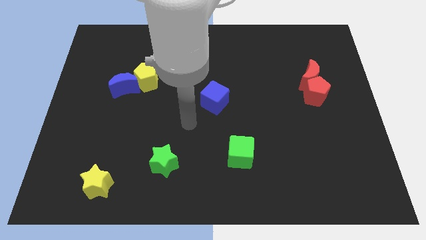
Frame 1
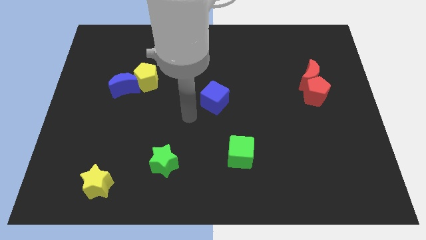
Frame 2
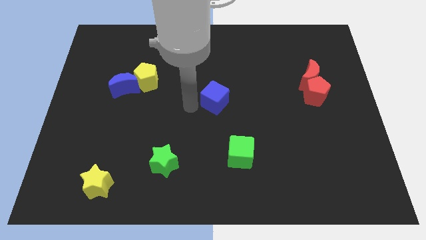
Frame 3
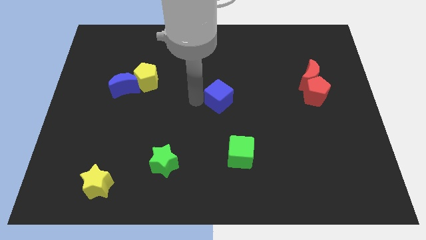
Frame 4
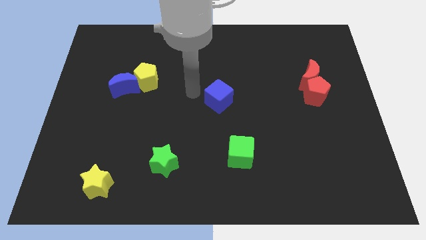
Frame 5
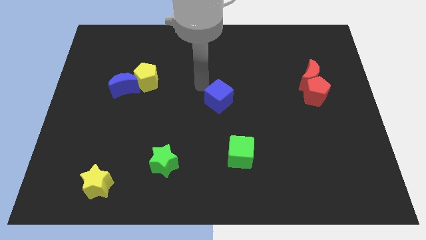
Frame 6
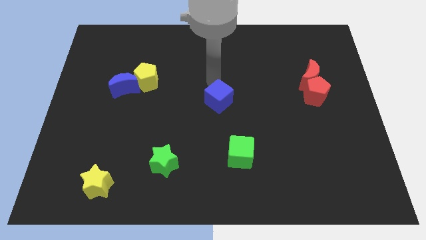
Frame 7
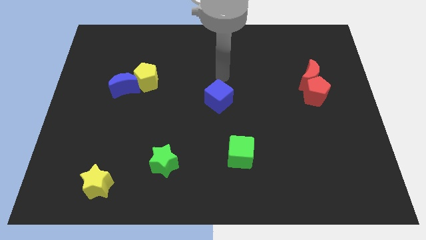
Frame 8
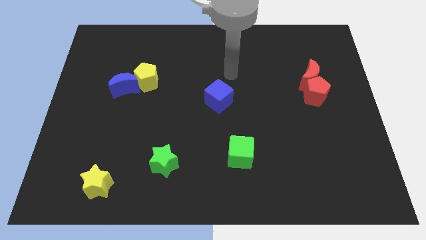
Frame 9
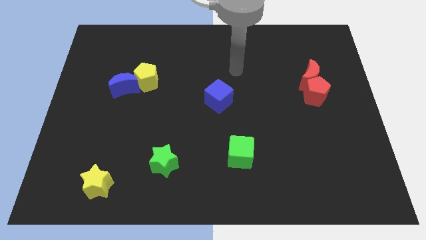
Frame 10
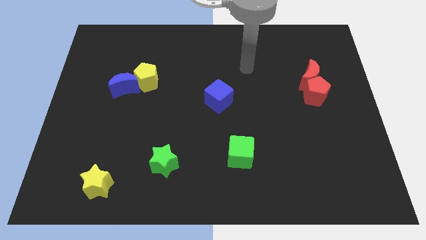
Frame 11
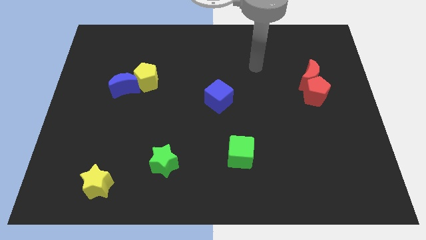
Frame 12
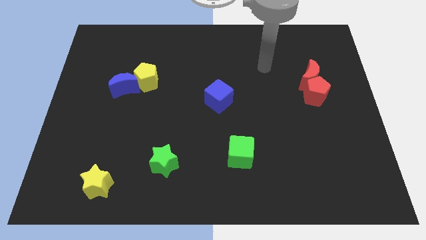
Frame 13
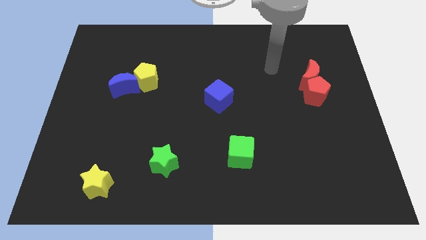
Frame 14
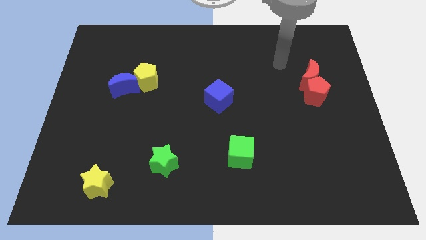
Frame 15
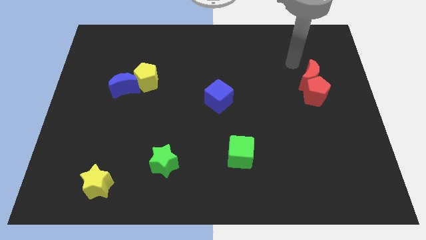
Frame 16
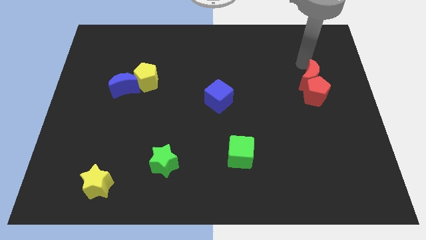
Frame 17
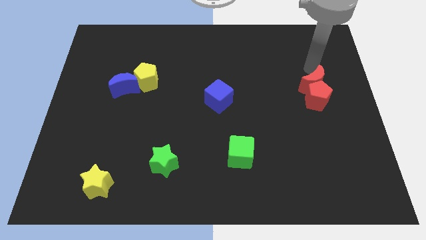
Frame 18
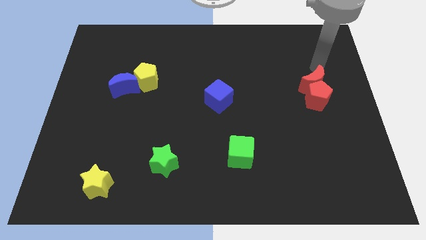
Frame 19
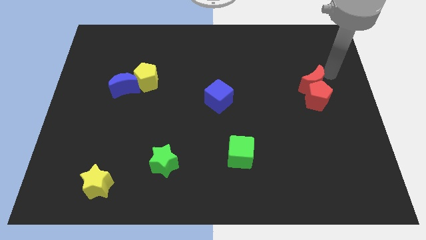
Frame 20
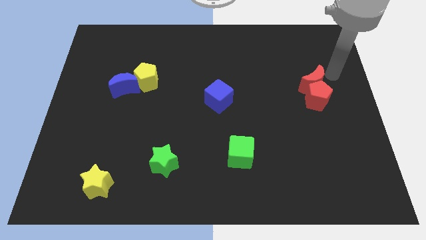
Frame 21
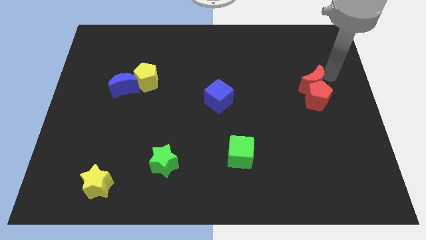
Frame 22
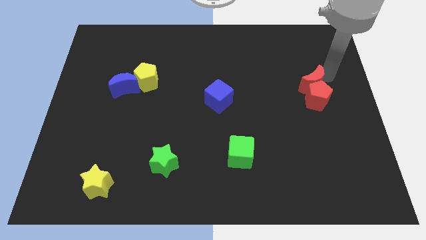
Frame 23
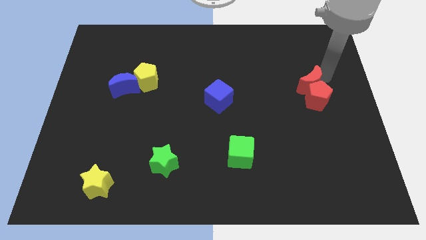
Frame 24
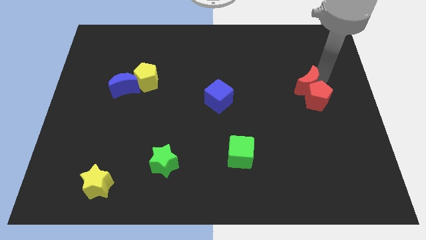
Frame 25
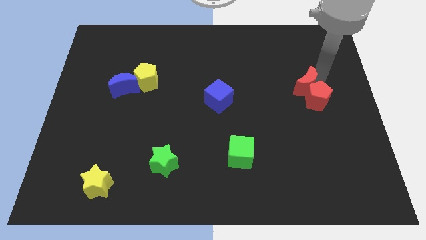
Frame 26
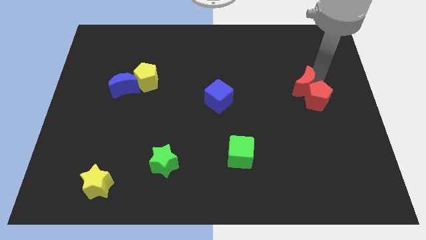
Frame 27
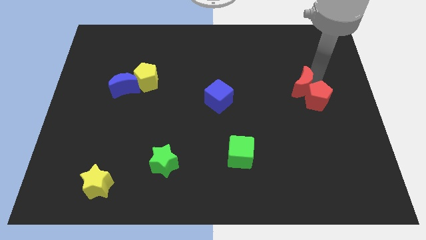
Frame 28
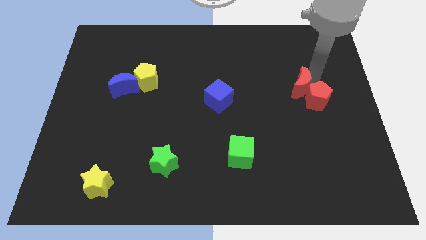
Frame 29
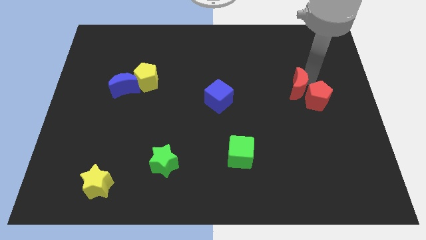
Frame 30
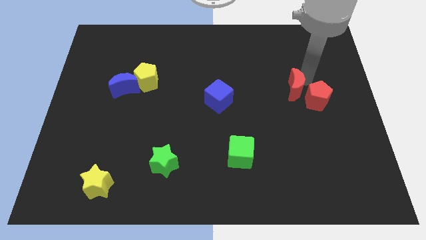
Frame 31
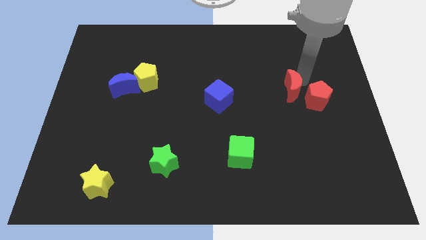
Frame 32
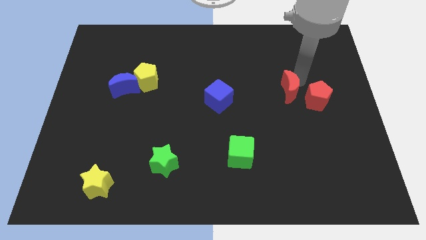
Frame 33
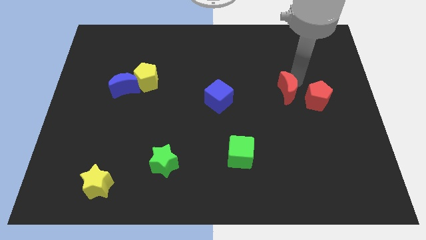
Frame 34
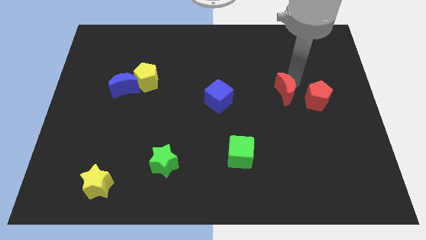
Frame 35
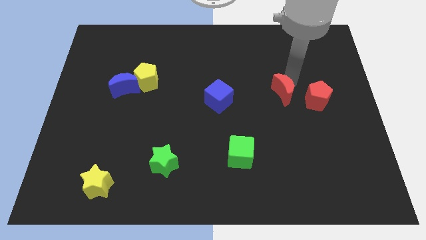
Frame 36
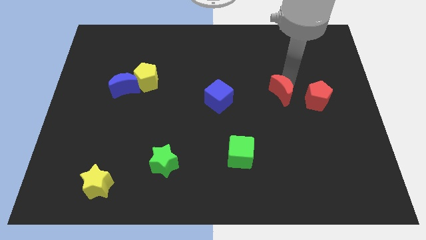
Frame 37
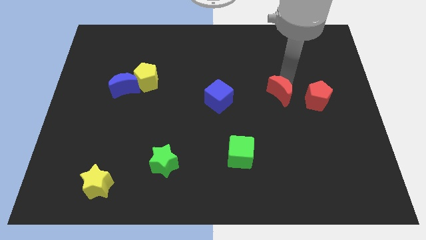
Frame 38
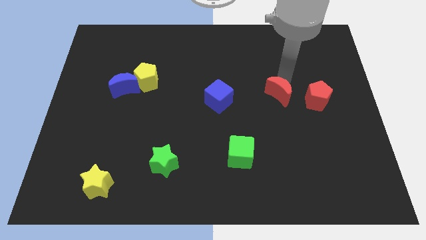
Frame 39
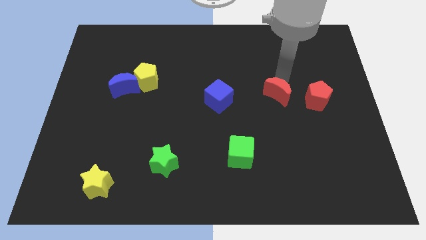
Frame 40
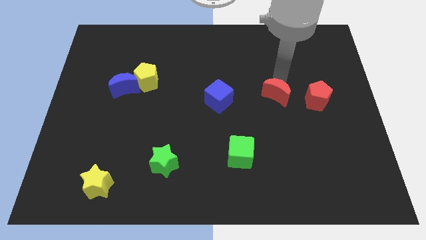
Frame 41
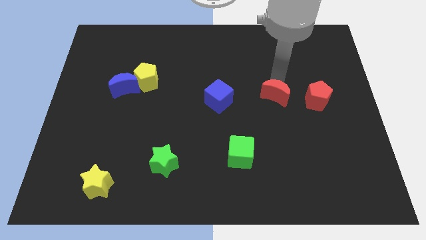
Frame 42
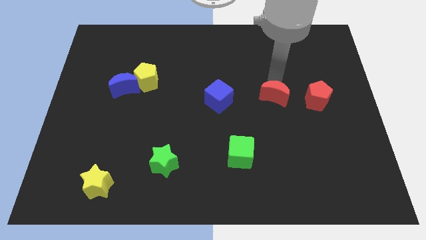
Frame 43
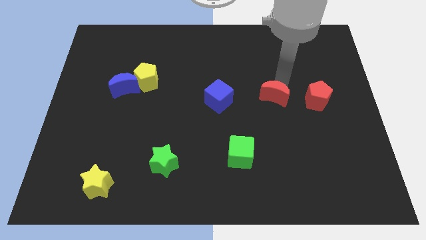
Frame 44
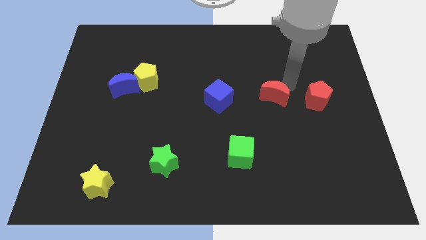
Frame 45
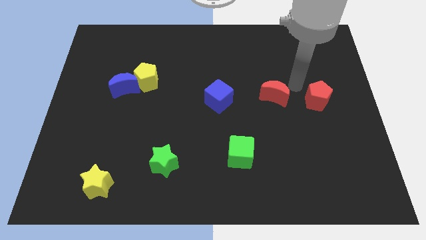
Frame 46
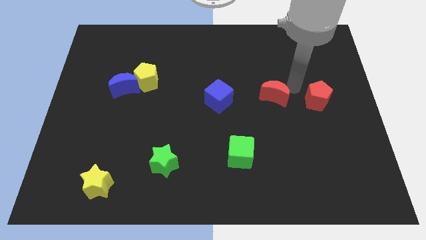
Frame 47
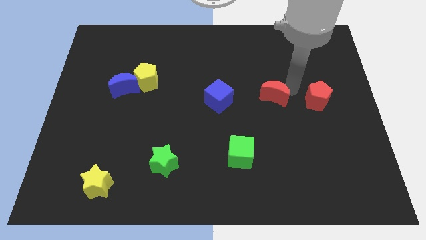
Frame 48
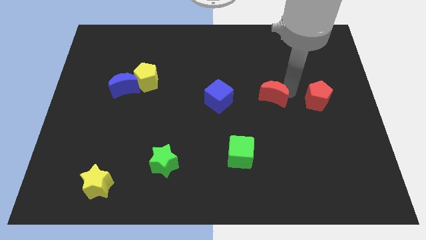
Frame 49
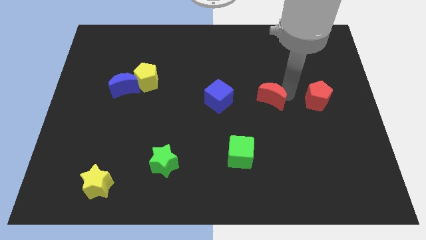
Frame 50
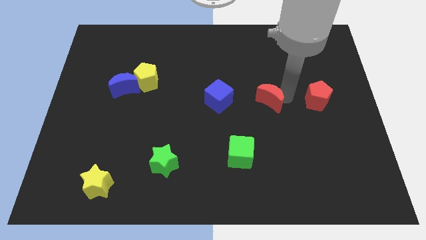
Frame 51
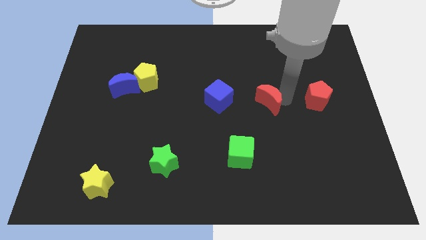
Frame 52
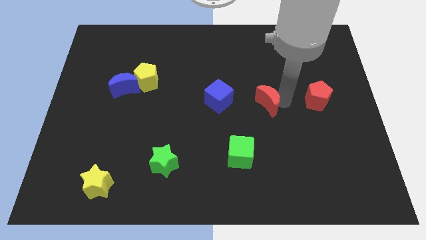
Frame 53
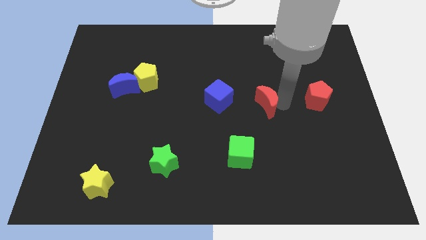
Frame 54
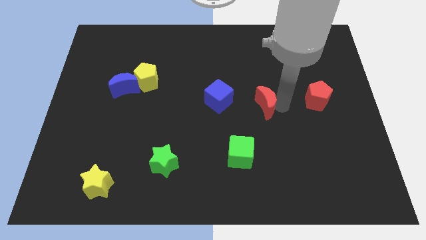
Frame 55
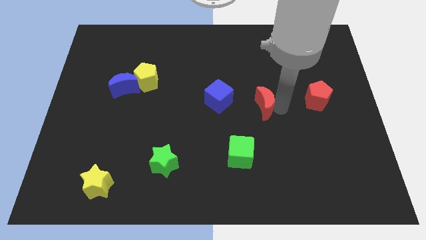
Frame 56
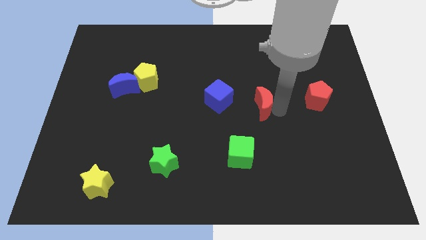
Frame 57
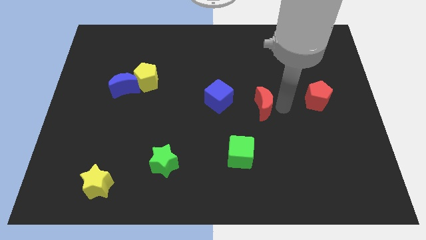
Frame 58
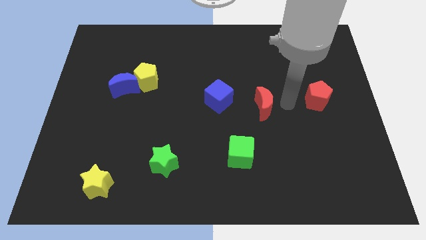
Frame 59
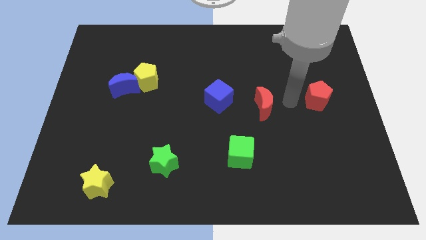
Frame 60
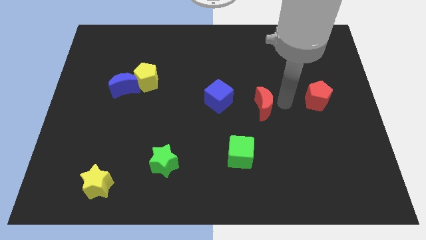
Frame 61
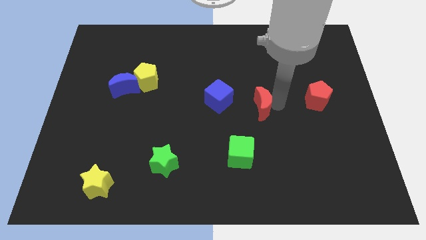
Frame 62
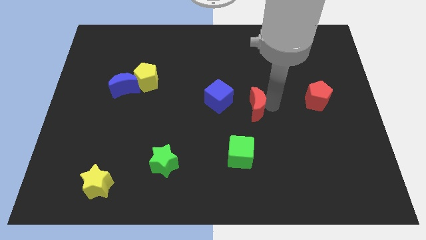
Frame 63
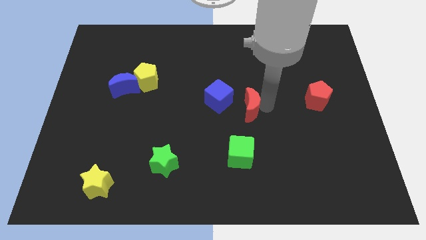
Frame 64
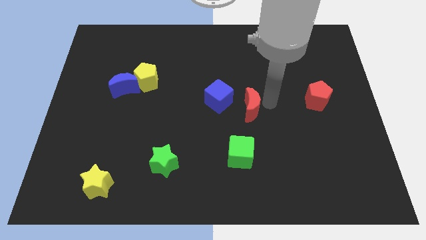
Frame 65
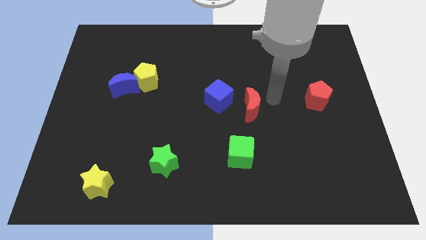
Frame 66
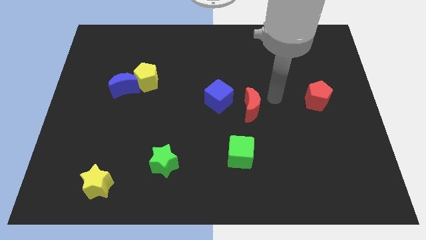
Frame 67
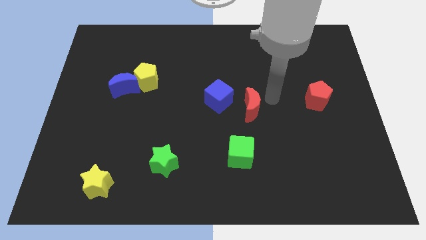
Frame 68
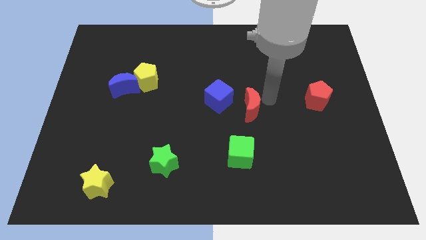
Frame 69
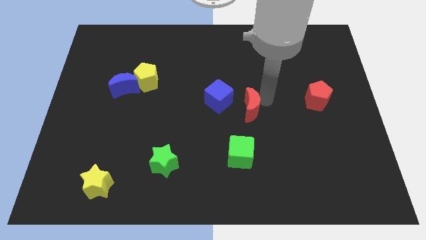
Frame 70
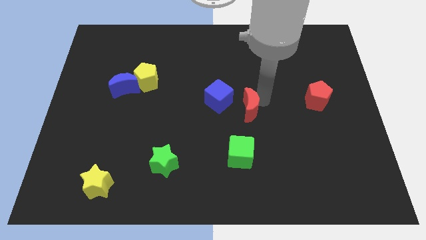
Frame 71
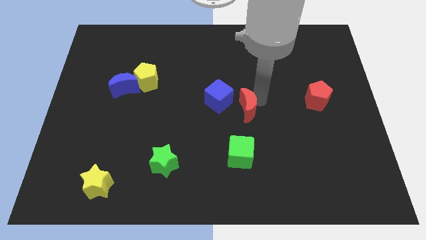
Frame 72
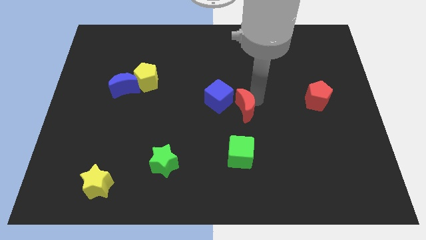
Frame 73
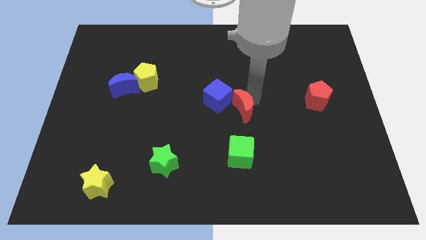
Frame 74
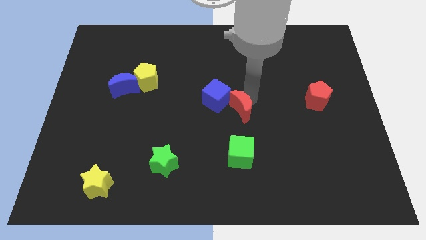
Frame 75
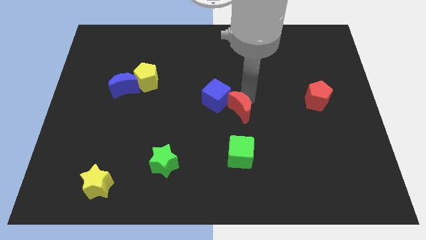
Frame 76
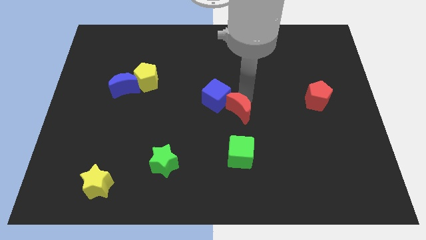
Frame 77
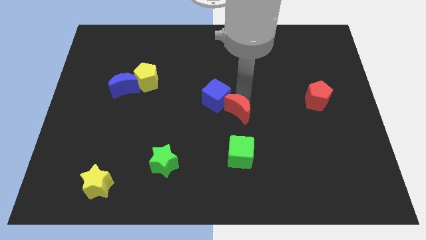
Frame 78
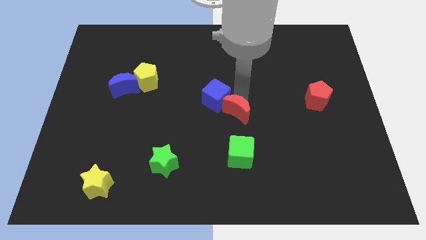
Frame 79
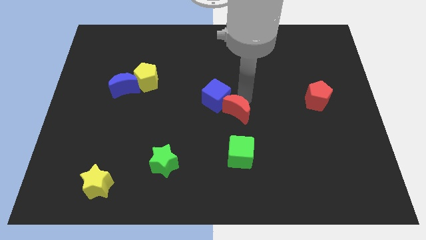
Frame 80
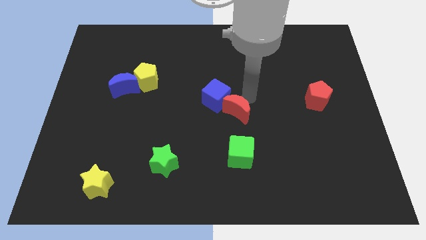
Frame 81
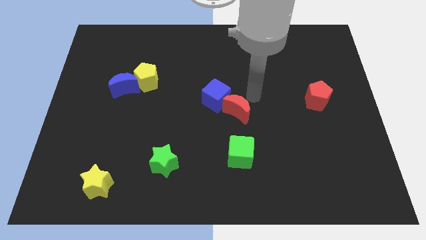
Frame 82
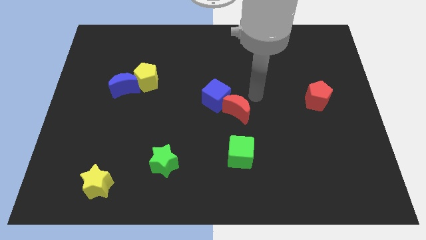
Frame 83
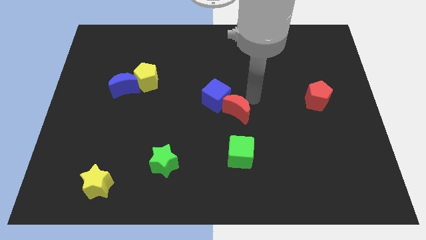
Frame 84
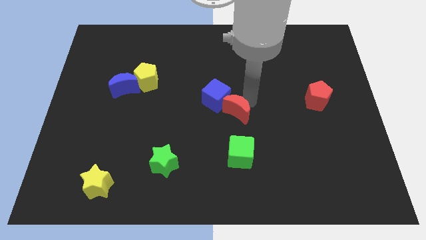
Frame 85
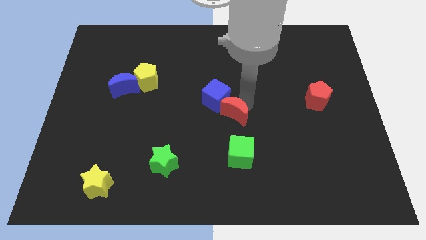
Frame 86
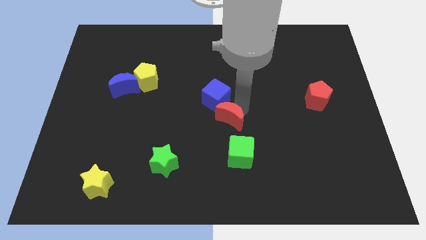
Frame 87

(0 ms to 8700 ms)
slide the red moon downwards and then left
